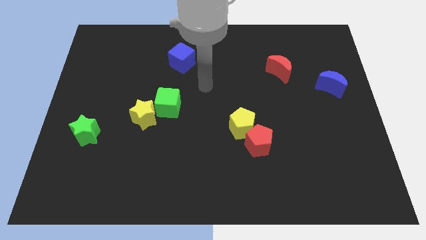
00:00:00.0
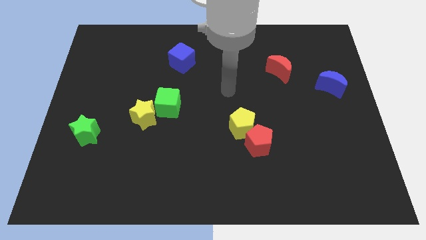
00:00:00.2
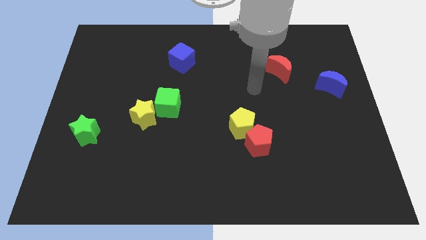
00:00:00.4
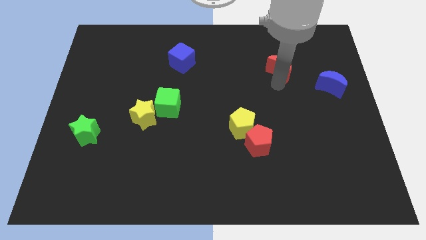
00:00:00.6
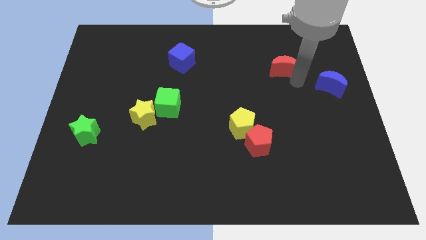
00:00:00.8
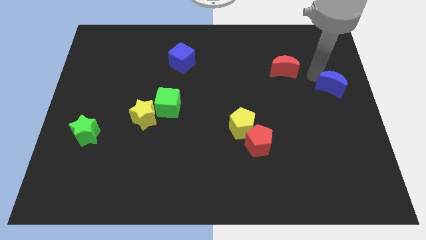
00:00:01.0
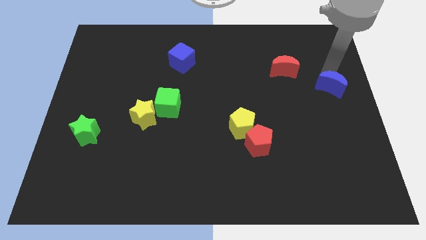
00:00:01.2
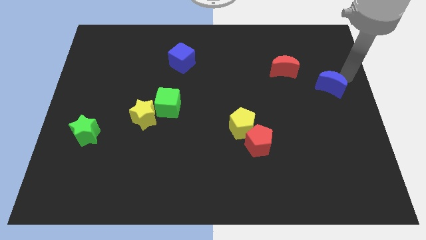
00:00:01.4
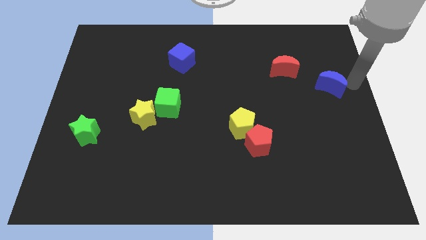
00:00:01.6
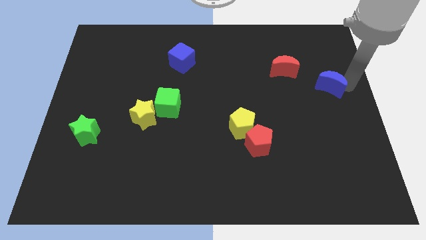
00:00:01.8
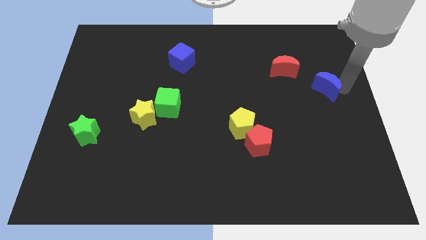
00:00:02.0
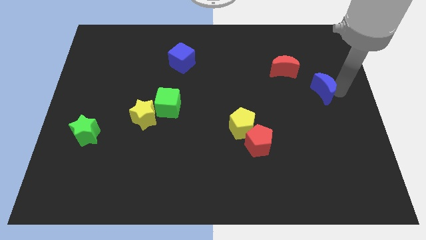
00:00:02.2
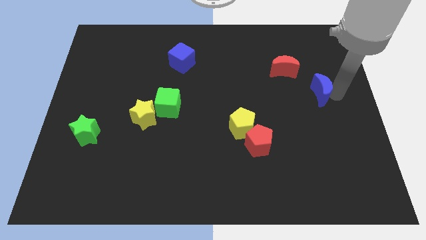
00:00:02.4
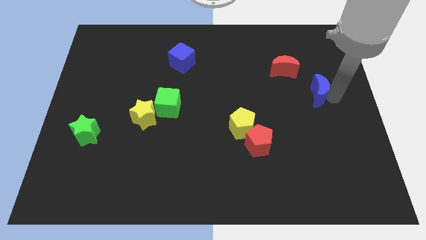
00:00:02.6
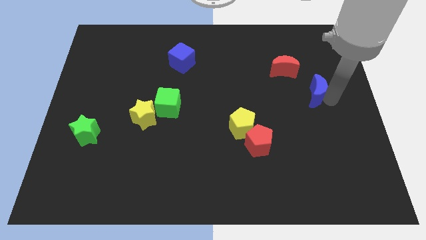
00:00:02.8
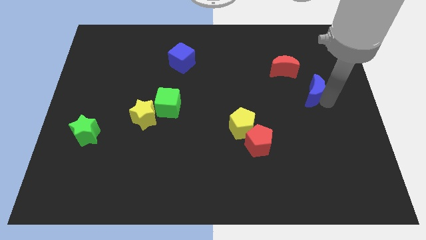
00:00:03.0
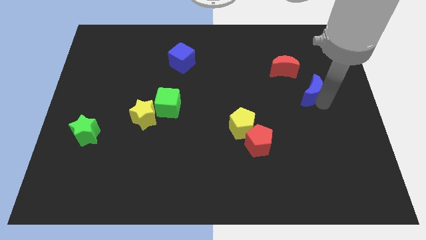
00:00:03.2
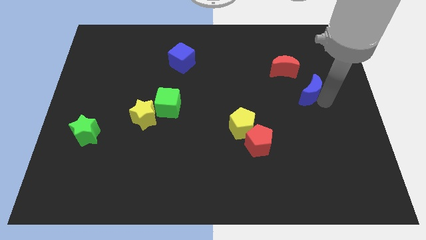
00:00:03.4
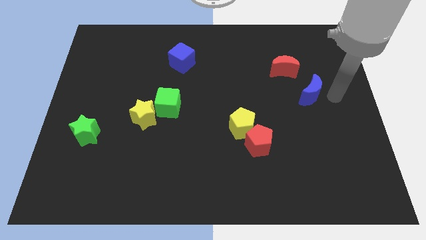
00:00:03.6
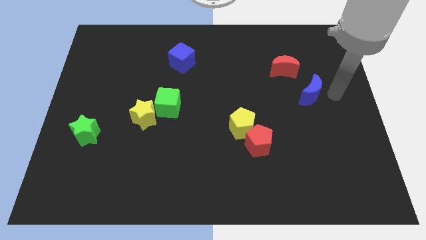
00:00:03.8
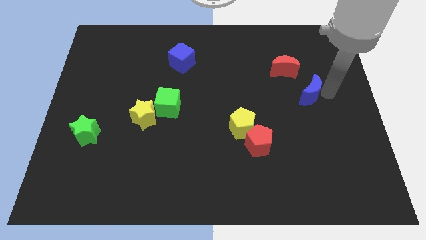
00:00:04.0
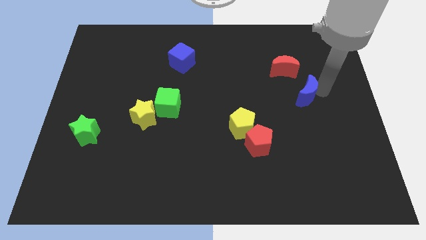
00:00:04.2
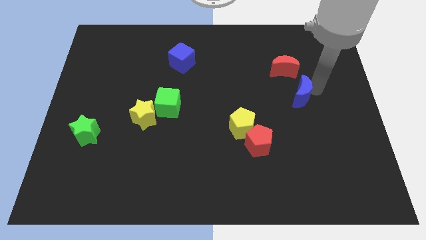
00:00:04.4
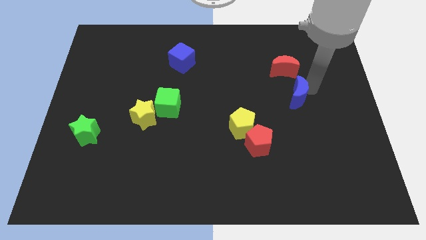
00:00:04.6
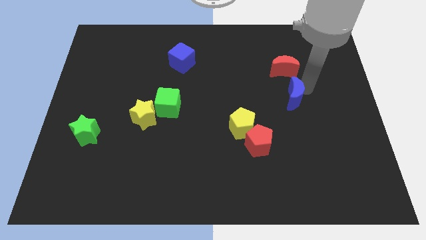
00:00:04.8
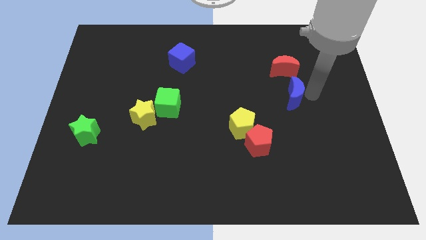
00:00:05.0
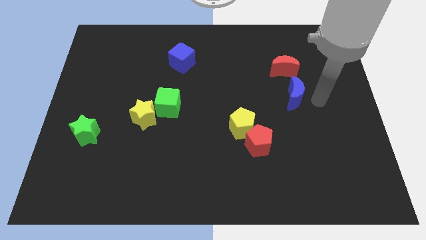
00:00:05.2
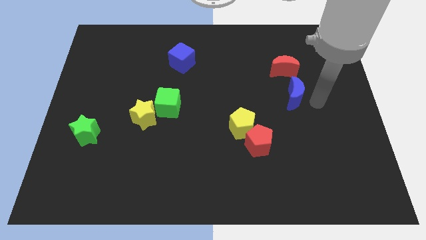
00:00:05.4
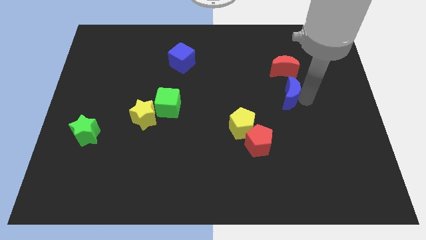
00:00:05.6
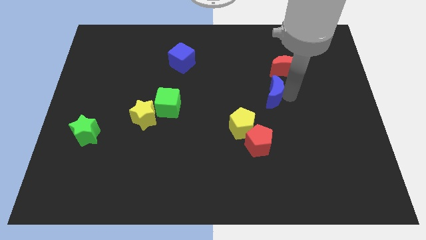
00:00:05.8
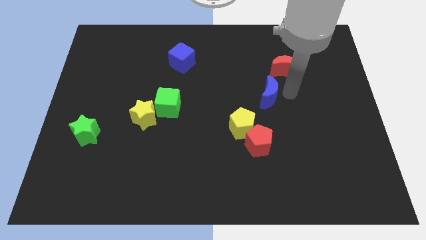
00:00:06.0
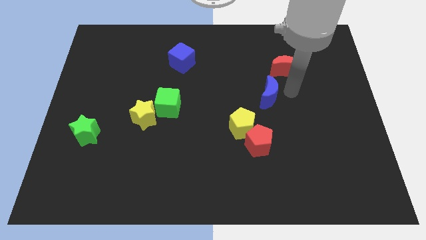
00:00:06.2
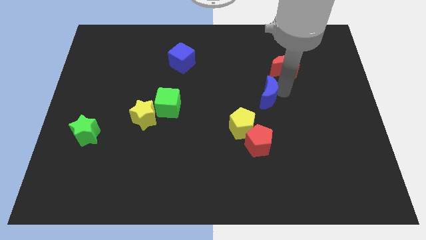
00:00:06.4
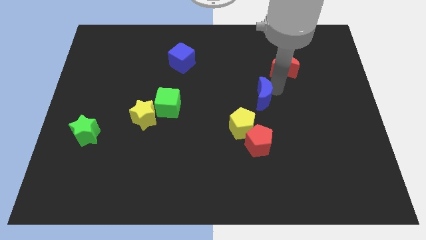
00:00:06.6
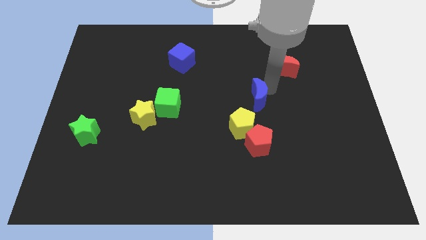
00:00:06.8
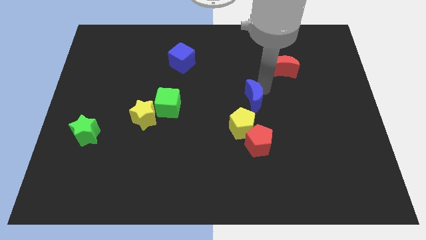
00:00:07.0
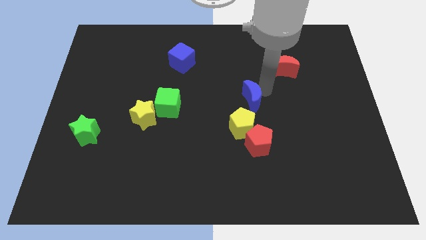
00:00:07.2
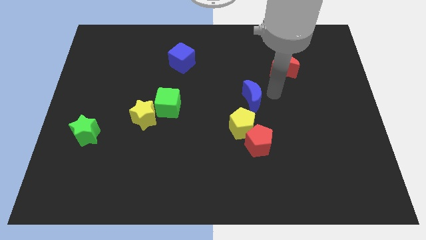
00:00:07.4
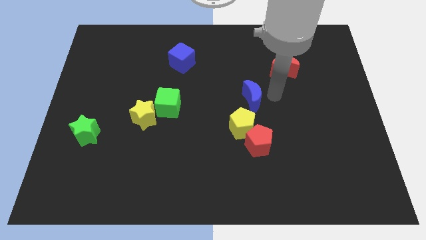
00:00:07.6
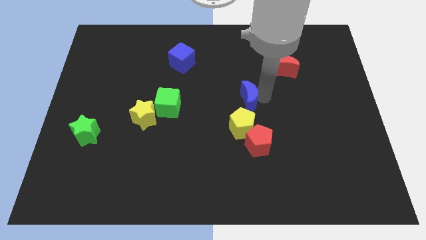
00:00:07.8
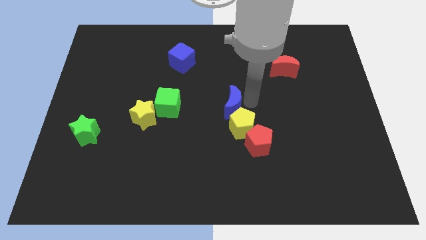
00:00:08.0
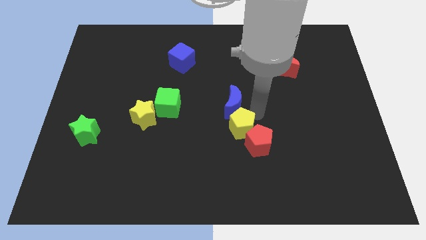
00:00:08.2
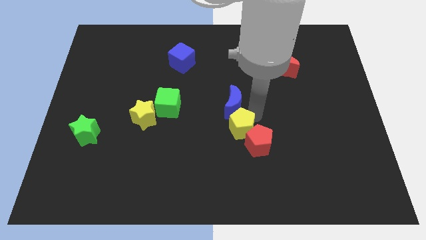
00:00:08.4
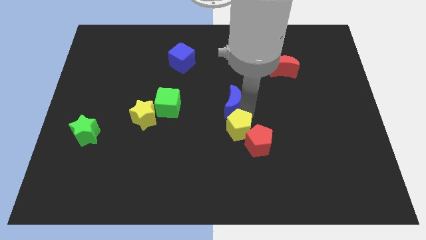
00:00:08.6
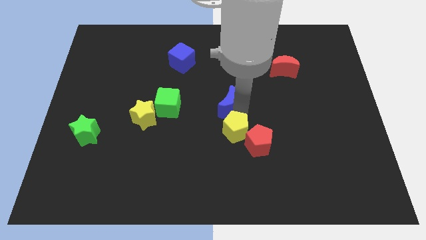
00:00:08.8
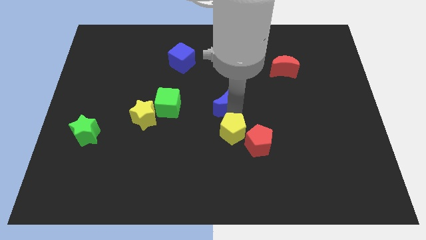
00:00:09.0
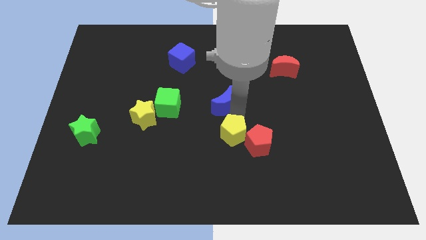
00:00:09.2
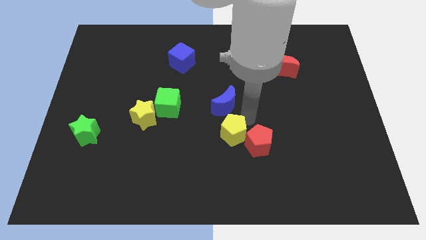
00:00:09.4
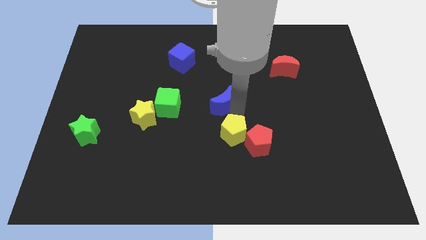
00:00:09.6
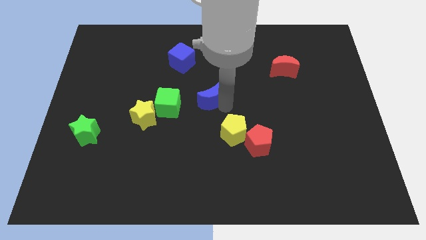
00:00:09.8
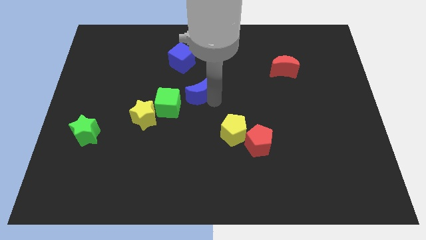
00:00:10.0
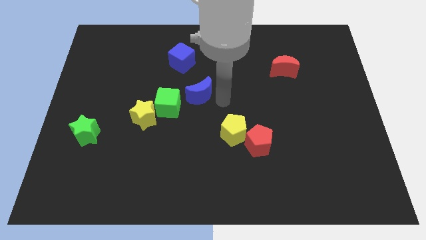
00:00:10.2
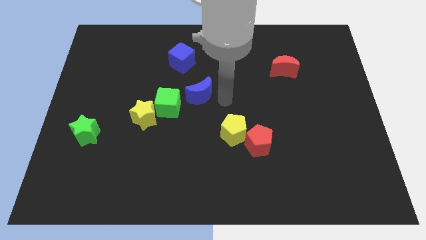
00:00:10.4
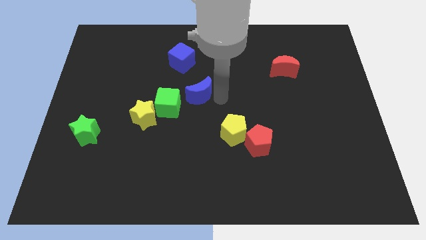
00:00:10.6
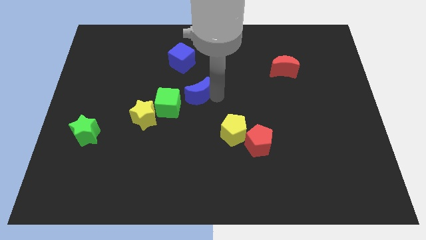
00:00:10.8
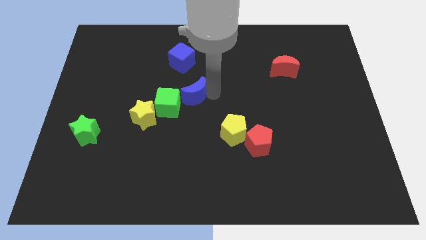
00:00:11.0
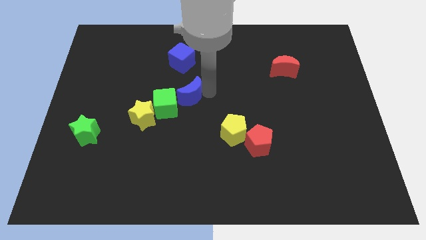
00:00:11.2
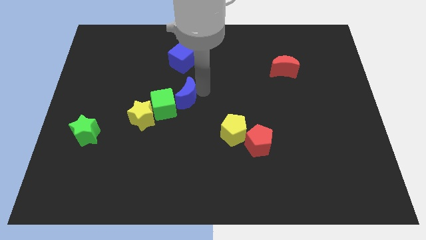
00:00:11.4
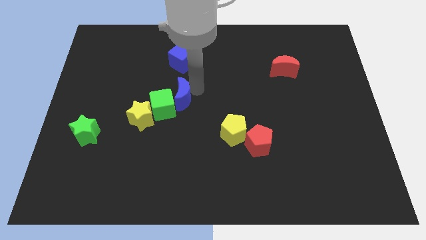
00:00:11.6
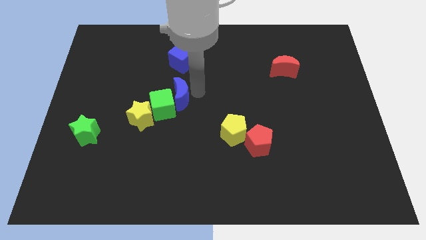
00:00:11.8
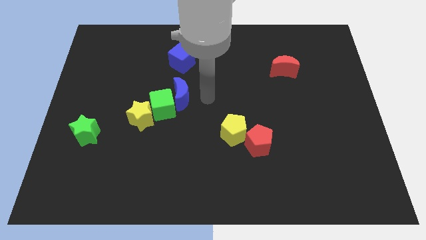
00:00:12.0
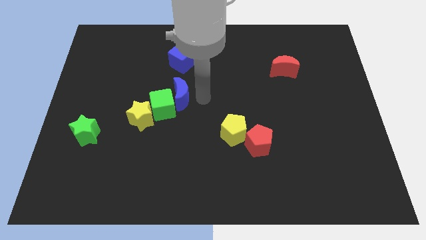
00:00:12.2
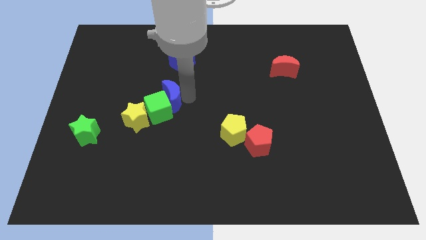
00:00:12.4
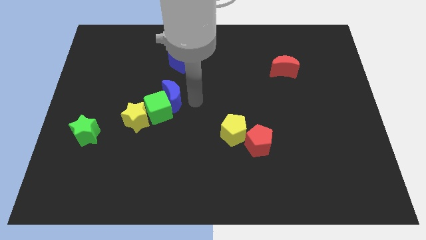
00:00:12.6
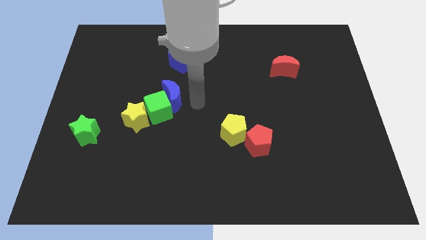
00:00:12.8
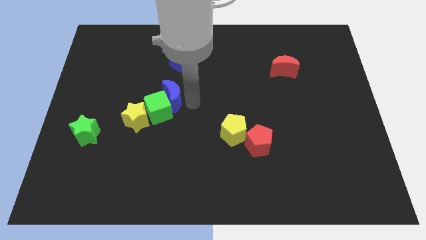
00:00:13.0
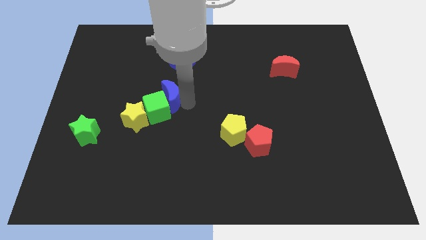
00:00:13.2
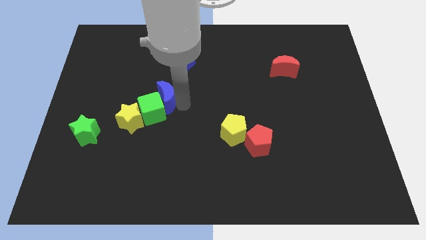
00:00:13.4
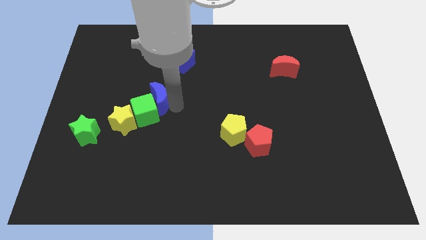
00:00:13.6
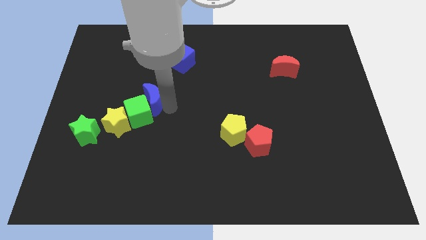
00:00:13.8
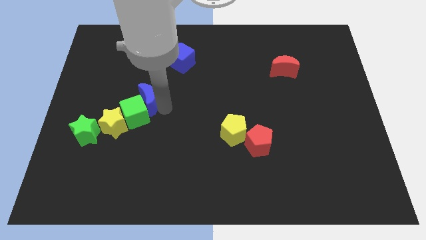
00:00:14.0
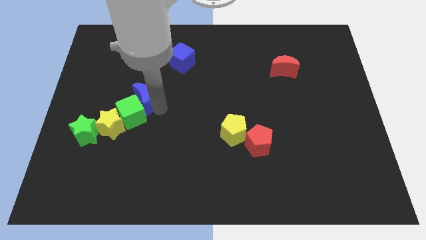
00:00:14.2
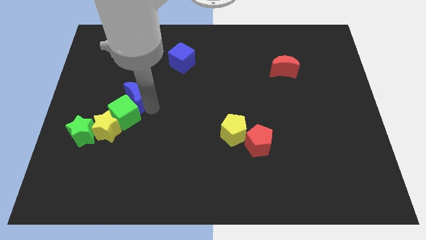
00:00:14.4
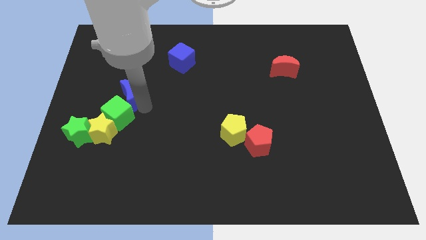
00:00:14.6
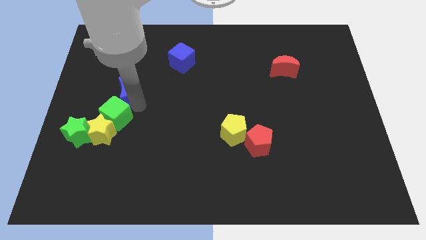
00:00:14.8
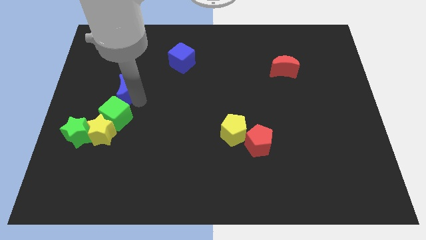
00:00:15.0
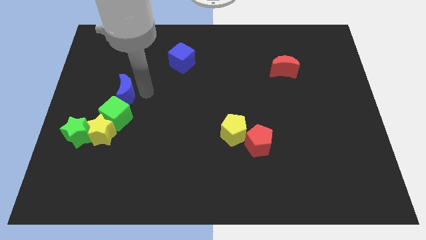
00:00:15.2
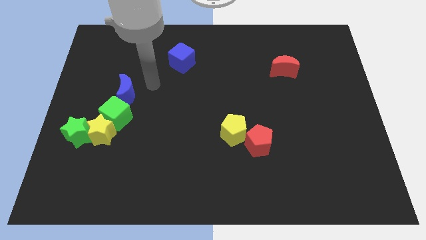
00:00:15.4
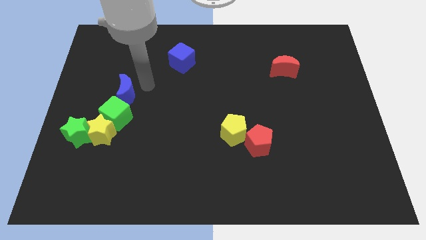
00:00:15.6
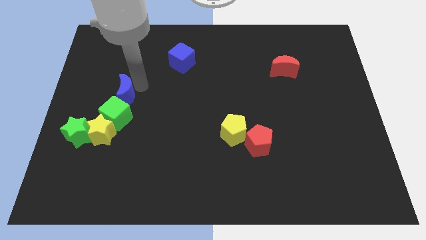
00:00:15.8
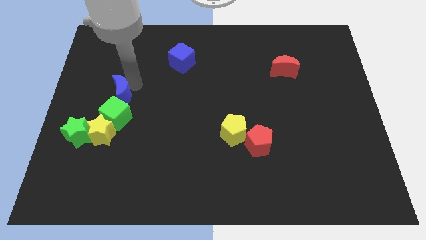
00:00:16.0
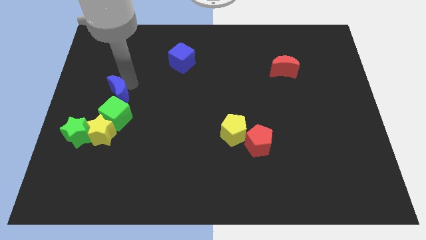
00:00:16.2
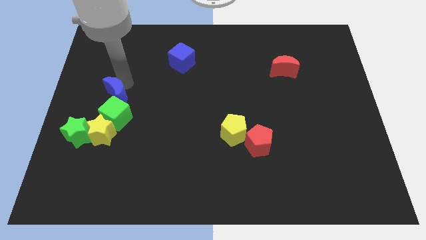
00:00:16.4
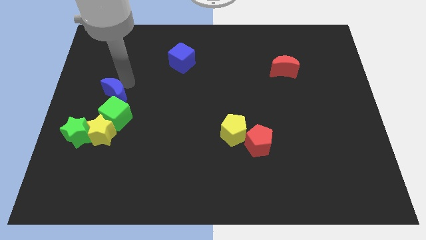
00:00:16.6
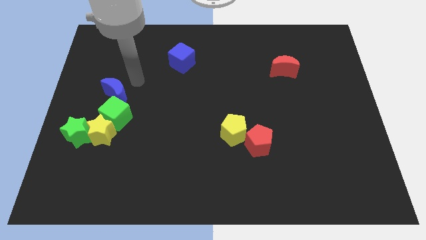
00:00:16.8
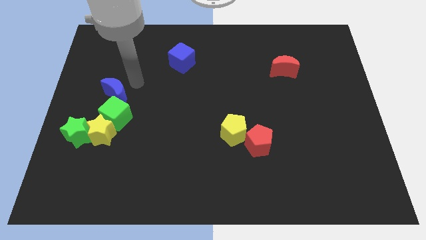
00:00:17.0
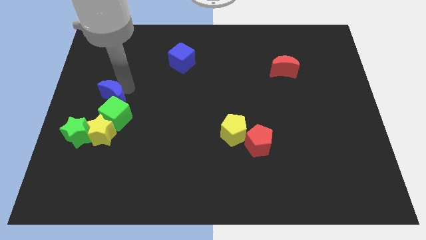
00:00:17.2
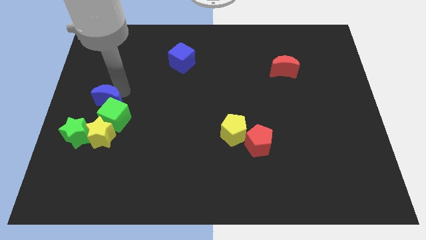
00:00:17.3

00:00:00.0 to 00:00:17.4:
slide the blue moon to the left side of the board
